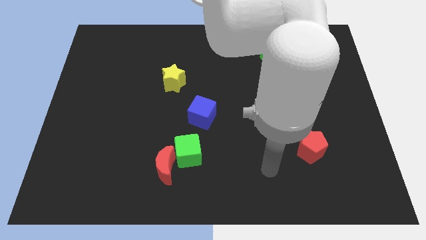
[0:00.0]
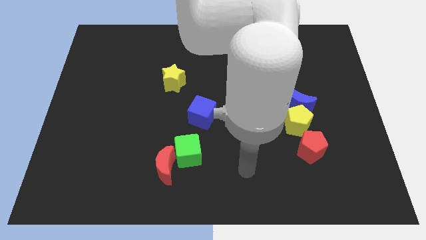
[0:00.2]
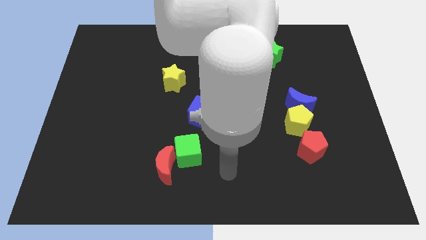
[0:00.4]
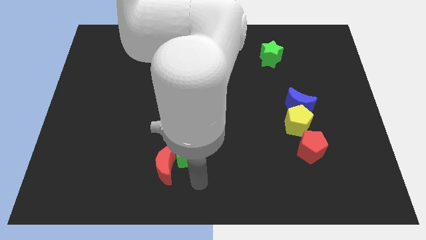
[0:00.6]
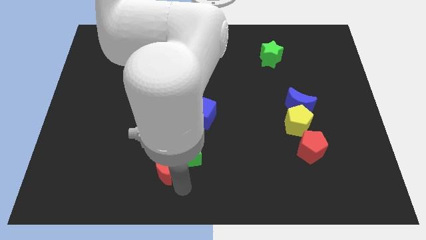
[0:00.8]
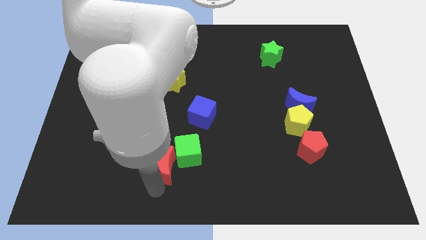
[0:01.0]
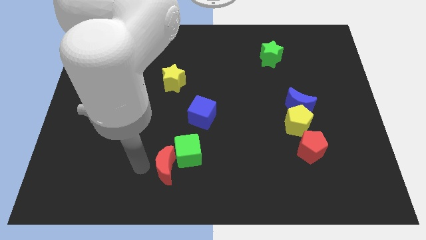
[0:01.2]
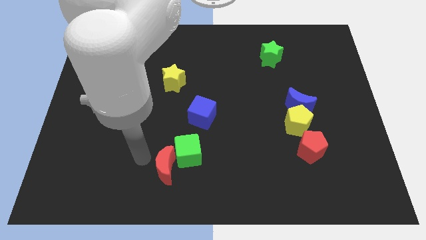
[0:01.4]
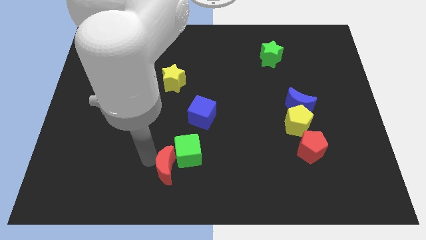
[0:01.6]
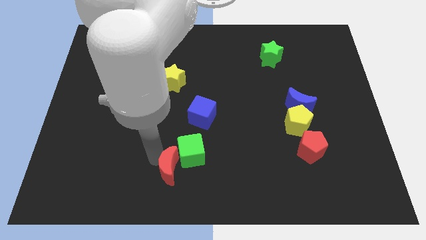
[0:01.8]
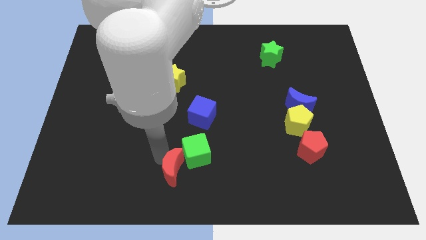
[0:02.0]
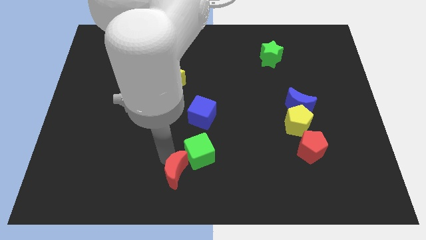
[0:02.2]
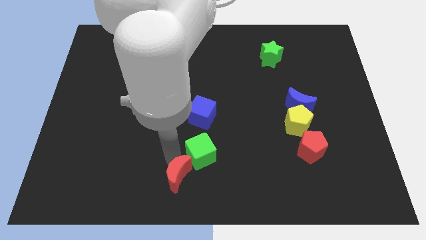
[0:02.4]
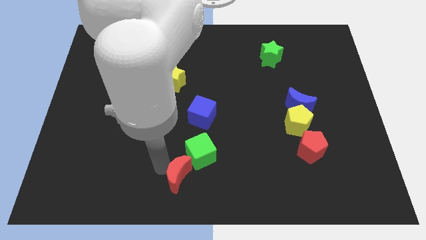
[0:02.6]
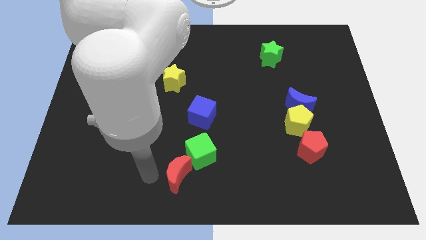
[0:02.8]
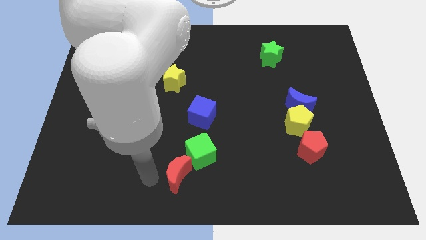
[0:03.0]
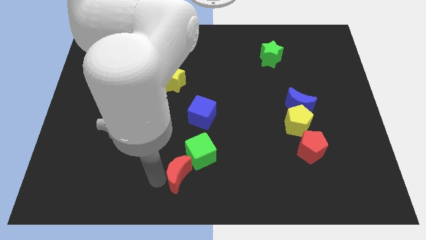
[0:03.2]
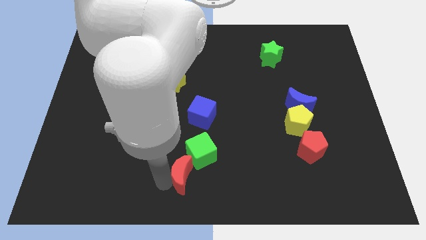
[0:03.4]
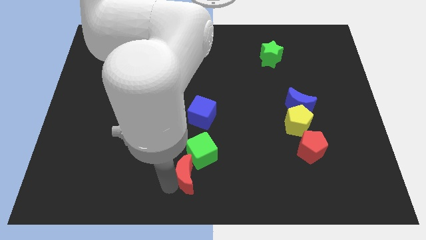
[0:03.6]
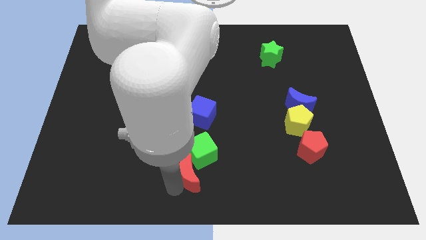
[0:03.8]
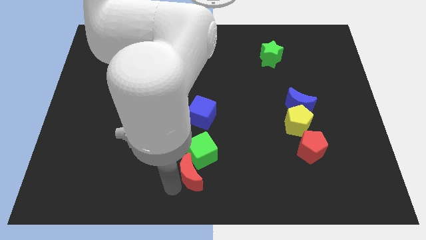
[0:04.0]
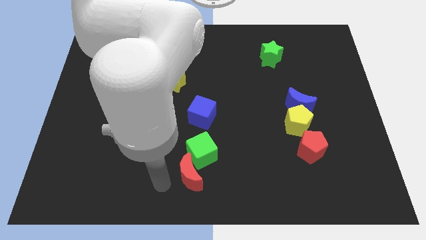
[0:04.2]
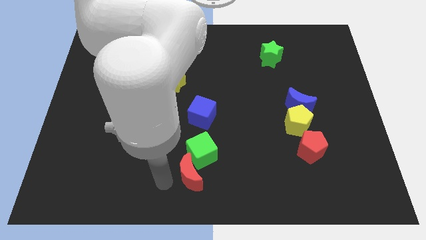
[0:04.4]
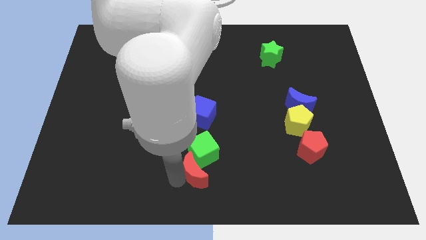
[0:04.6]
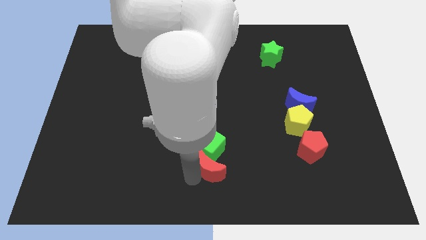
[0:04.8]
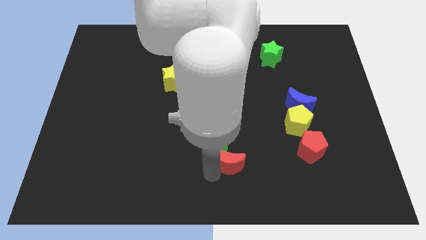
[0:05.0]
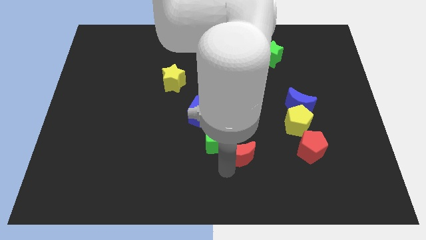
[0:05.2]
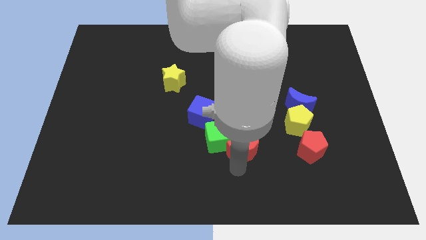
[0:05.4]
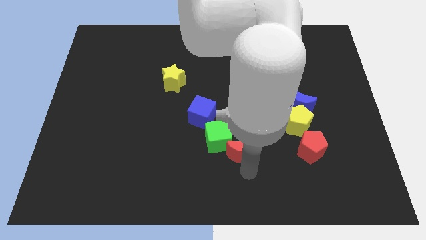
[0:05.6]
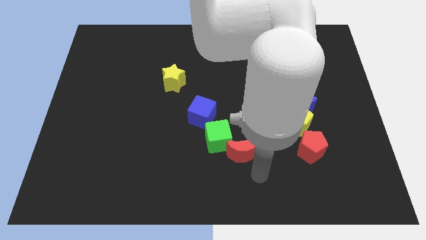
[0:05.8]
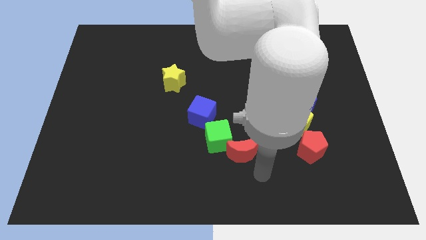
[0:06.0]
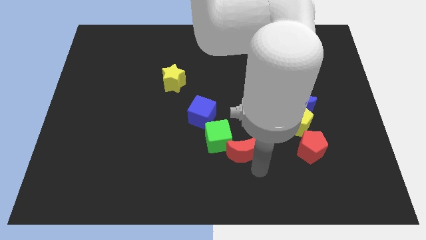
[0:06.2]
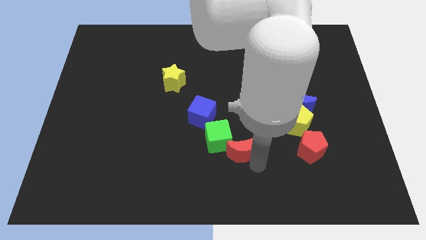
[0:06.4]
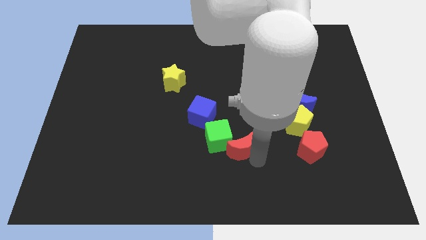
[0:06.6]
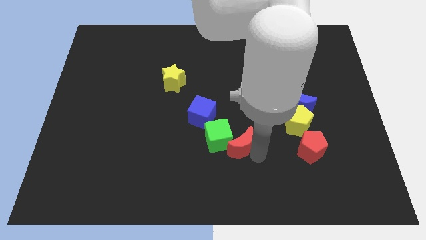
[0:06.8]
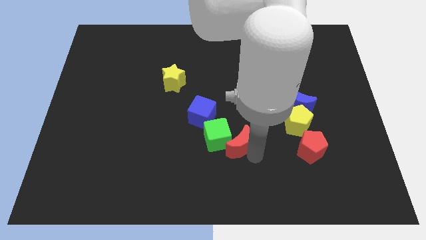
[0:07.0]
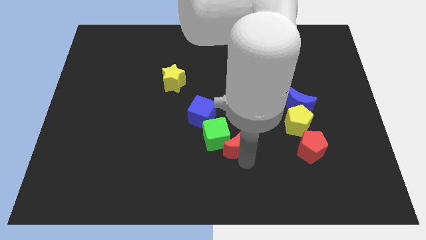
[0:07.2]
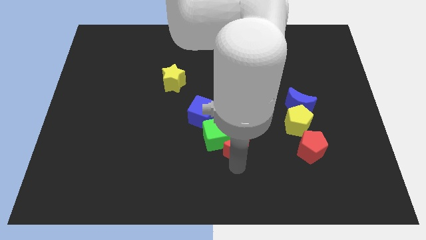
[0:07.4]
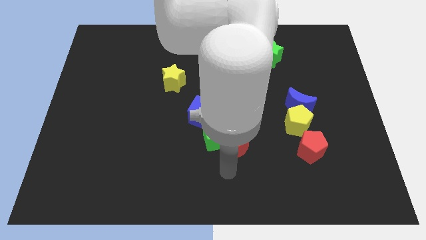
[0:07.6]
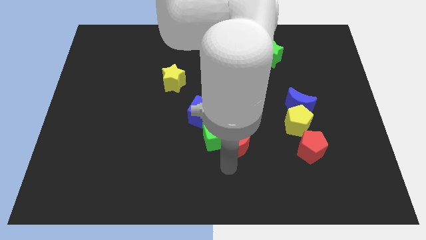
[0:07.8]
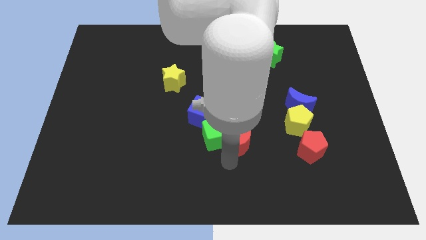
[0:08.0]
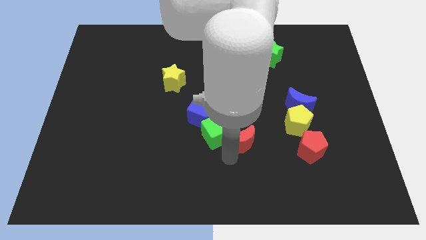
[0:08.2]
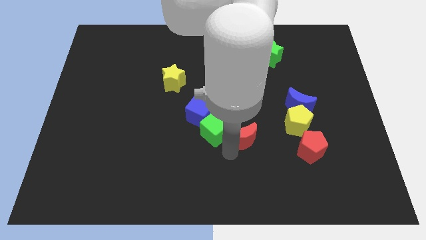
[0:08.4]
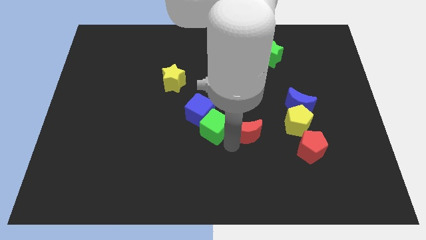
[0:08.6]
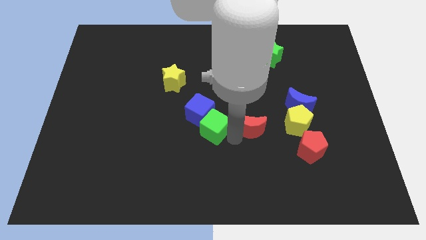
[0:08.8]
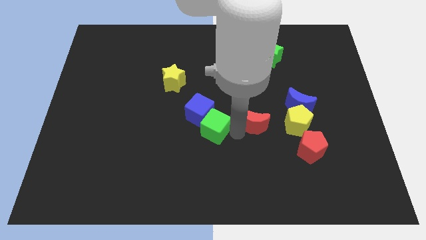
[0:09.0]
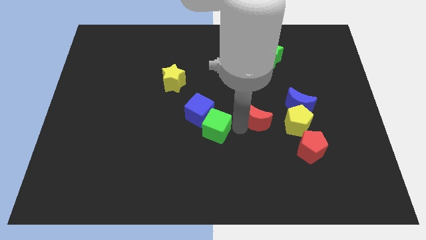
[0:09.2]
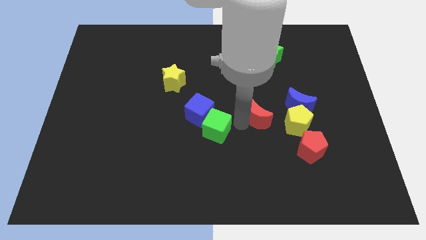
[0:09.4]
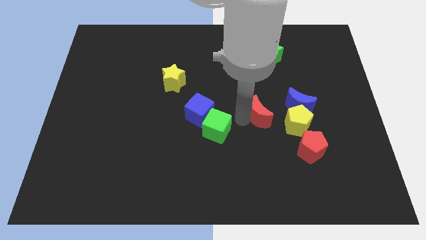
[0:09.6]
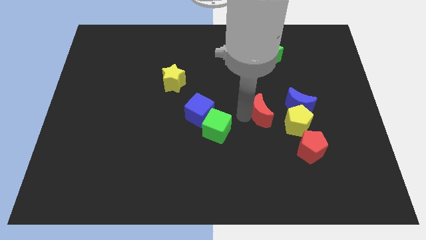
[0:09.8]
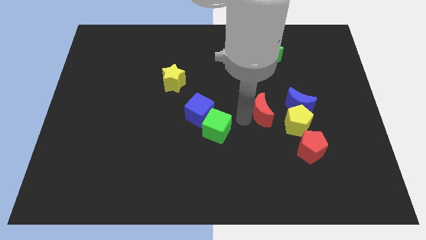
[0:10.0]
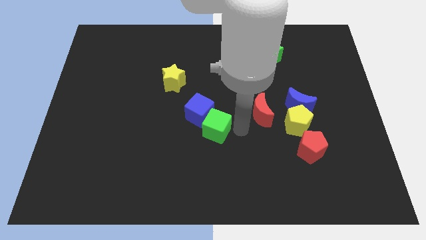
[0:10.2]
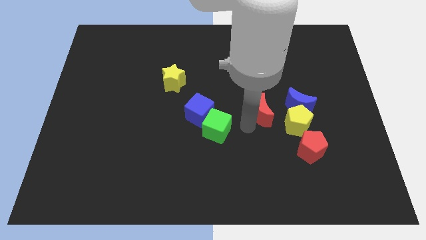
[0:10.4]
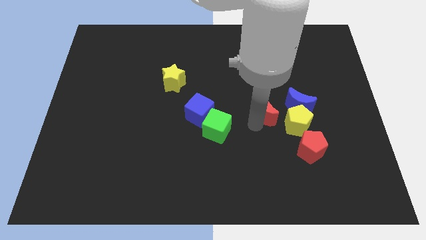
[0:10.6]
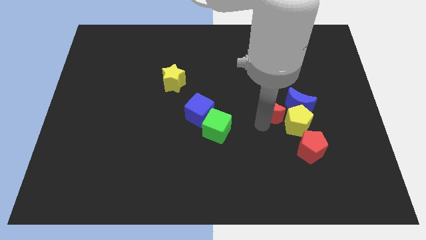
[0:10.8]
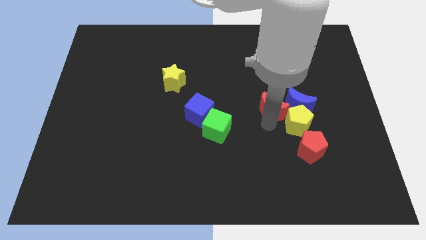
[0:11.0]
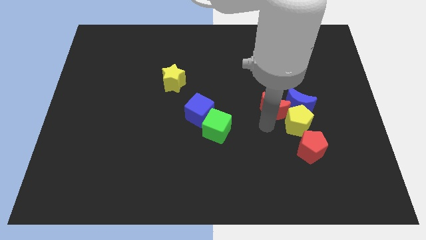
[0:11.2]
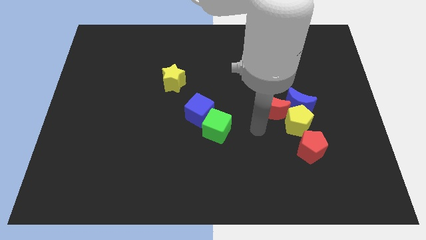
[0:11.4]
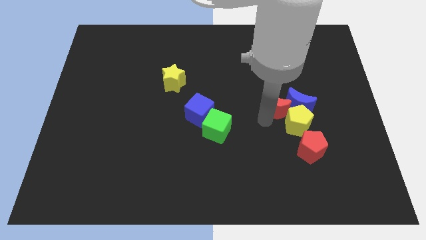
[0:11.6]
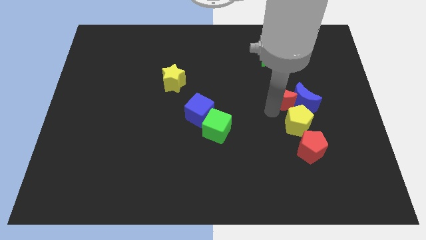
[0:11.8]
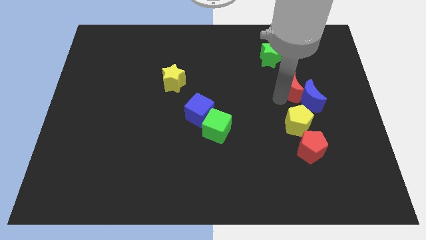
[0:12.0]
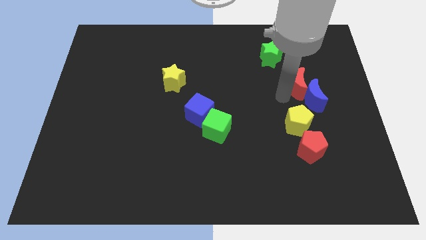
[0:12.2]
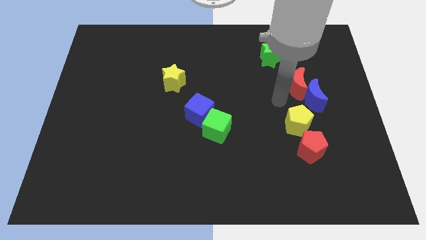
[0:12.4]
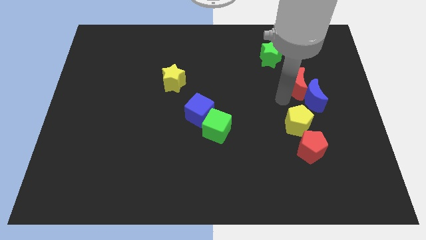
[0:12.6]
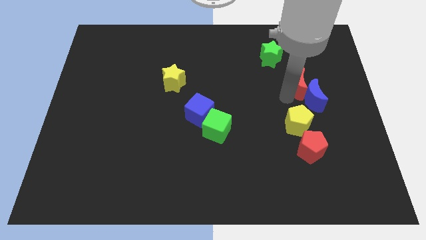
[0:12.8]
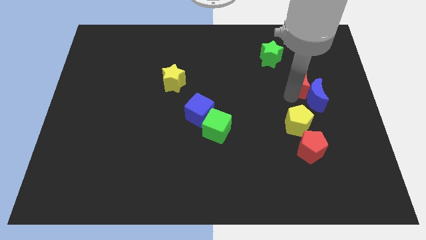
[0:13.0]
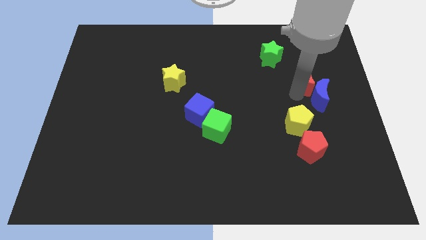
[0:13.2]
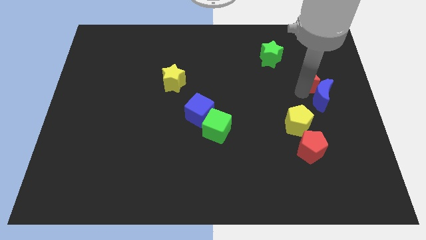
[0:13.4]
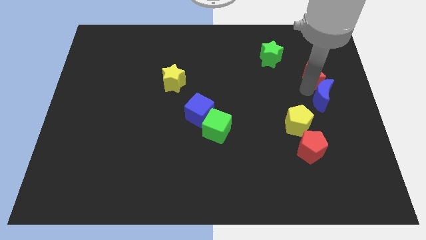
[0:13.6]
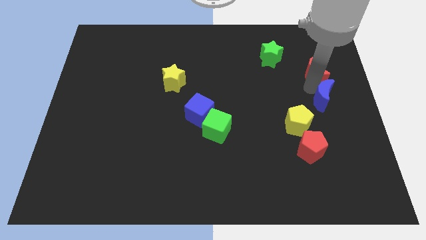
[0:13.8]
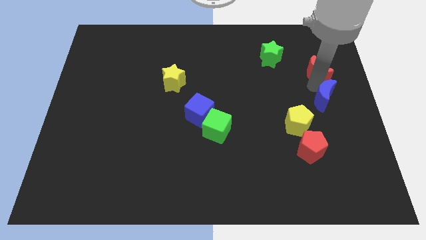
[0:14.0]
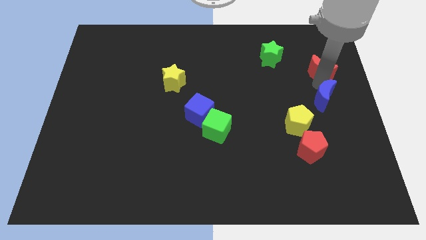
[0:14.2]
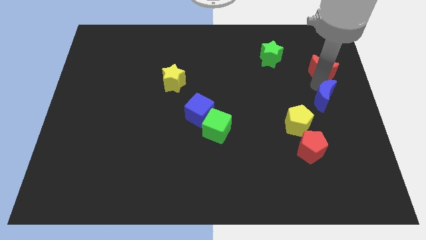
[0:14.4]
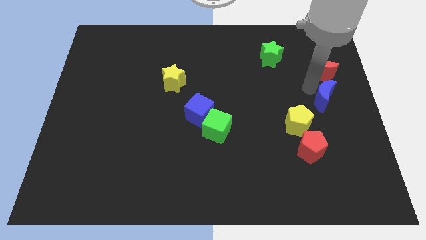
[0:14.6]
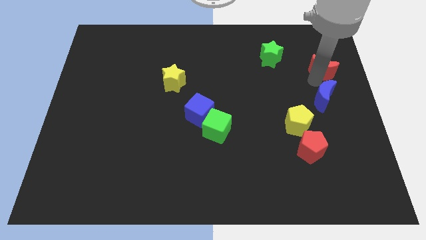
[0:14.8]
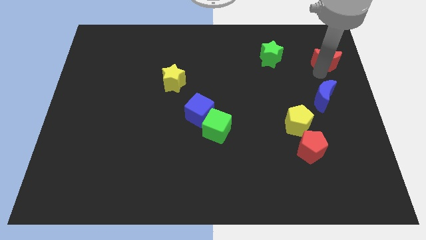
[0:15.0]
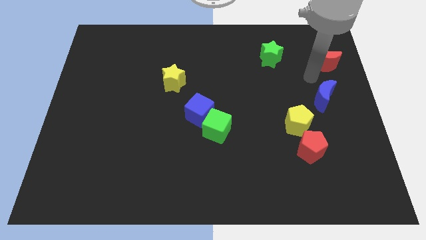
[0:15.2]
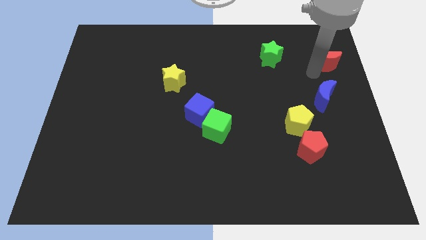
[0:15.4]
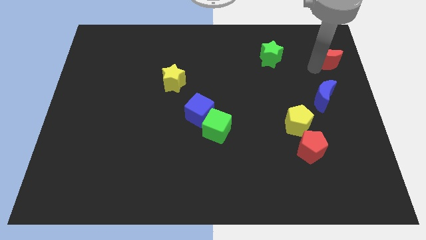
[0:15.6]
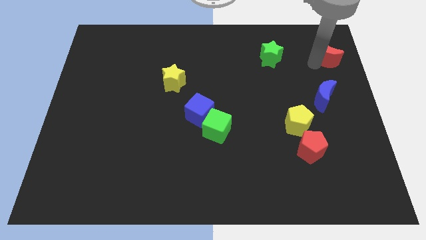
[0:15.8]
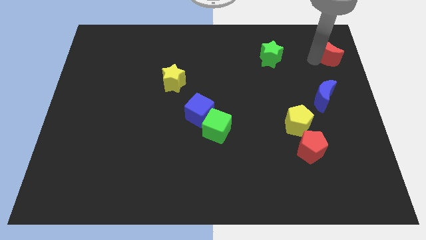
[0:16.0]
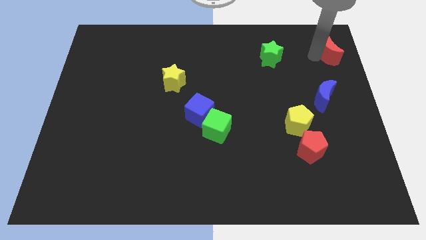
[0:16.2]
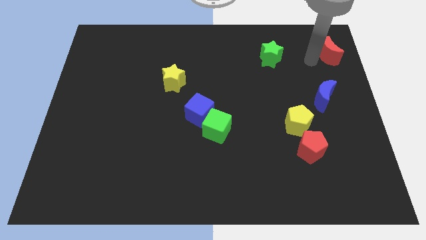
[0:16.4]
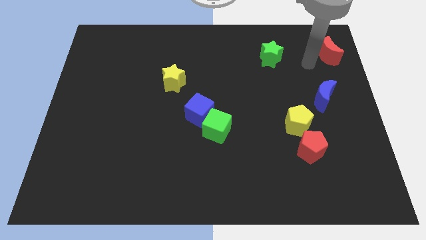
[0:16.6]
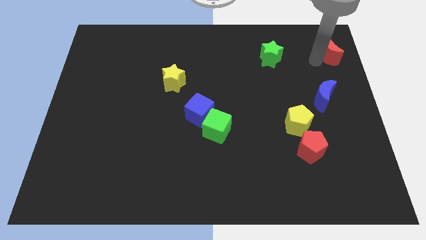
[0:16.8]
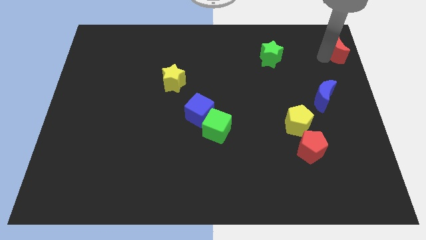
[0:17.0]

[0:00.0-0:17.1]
slide the red moon to the top right corner
